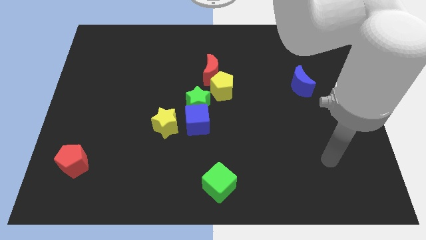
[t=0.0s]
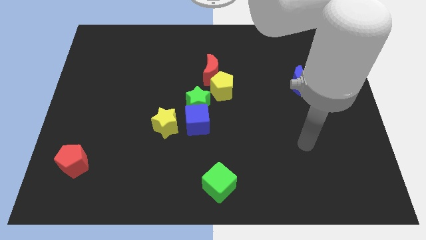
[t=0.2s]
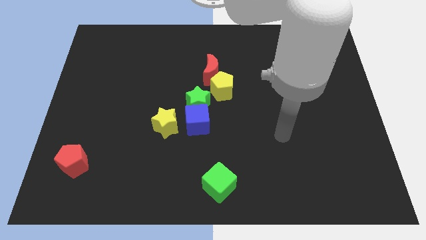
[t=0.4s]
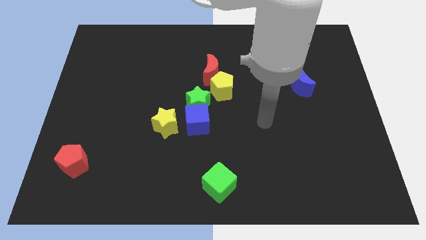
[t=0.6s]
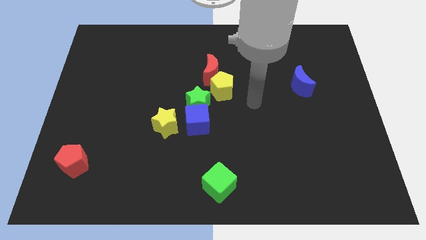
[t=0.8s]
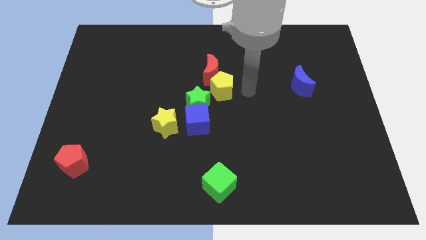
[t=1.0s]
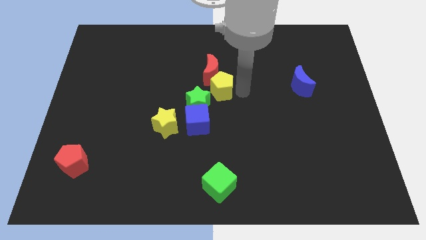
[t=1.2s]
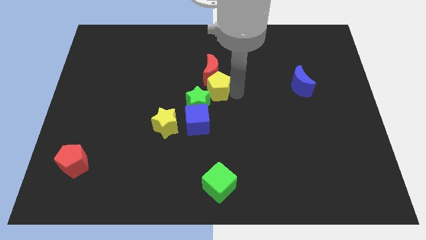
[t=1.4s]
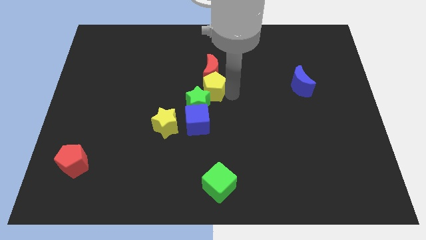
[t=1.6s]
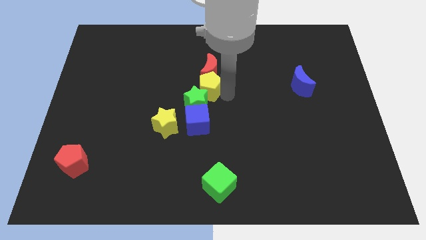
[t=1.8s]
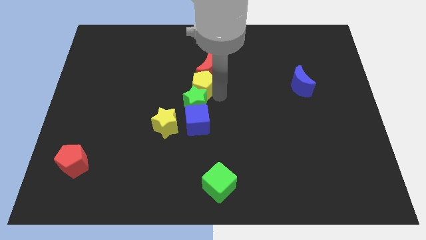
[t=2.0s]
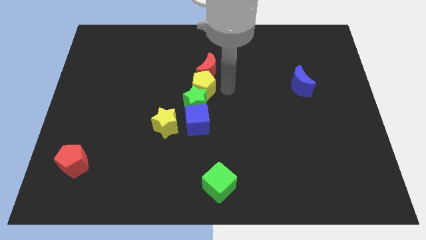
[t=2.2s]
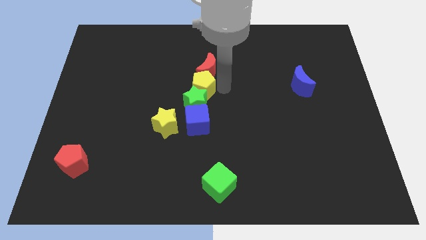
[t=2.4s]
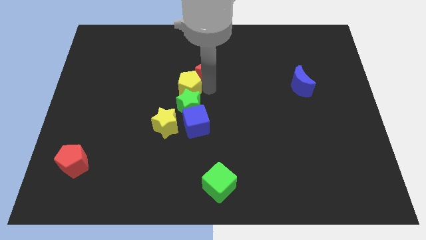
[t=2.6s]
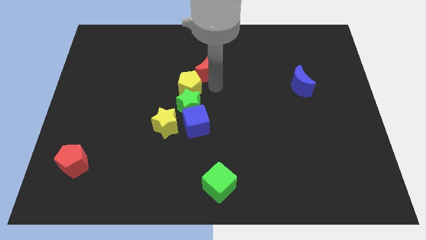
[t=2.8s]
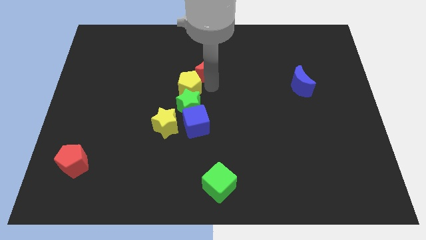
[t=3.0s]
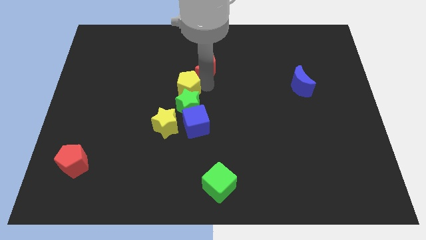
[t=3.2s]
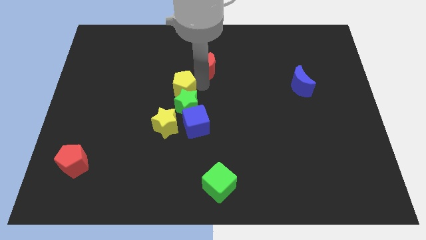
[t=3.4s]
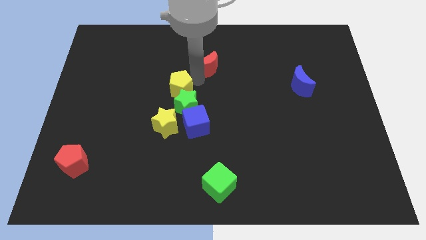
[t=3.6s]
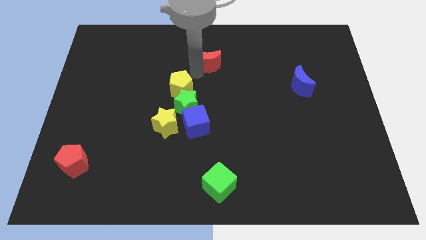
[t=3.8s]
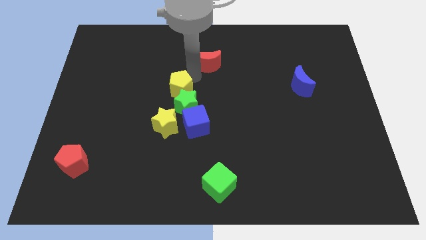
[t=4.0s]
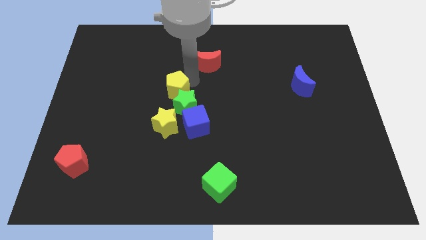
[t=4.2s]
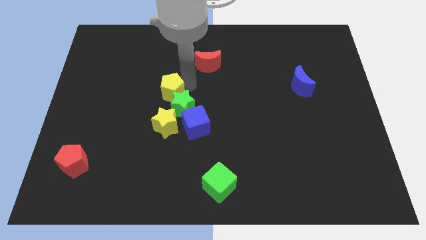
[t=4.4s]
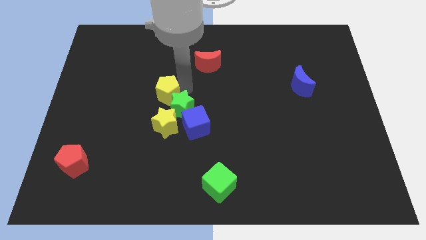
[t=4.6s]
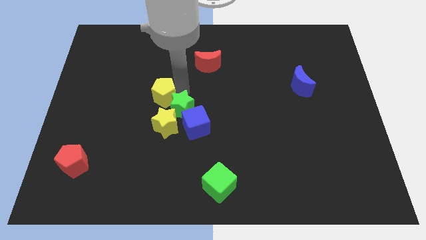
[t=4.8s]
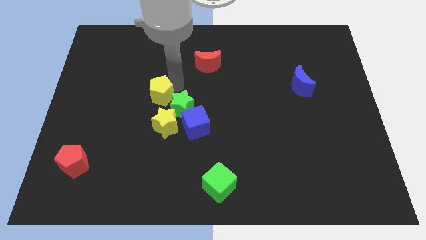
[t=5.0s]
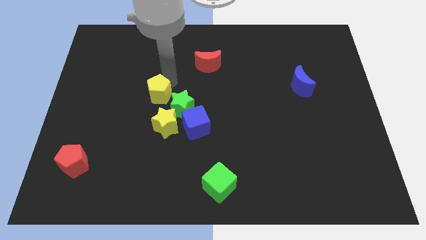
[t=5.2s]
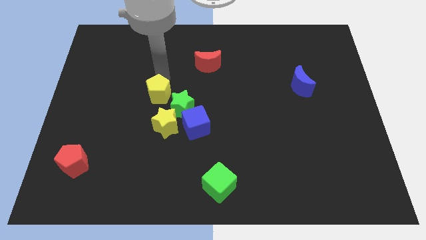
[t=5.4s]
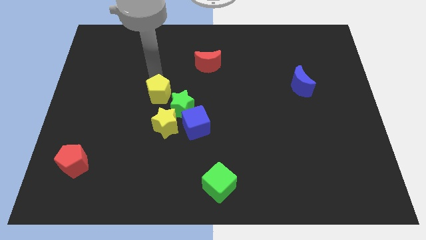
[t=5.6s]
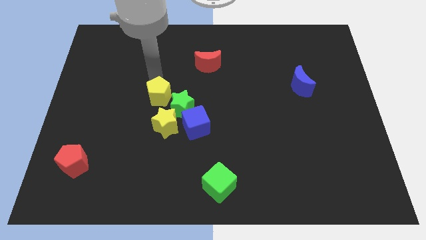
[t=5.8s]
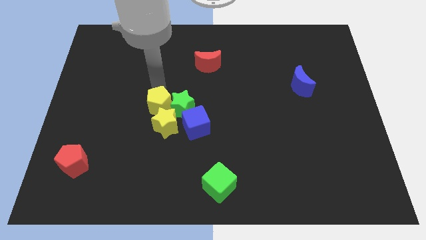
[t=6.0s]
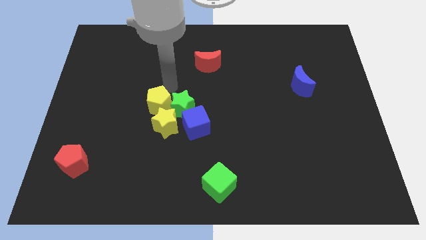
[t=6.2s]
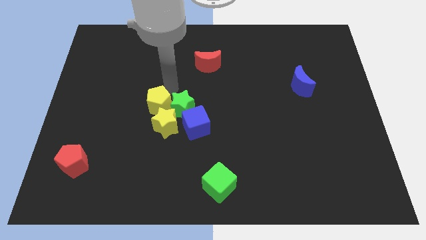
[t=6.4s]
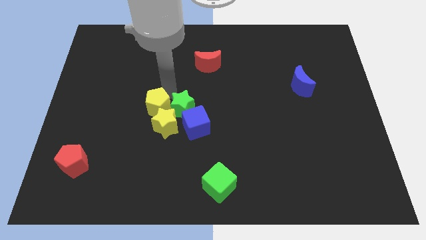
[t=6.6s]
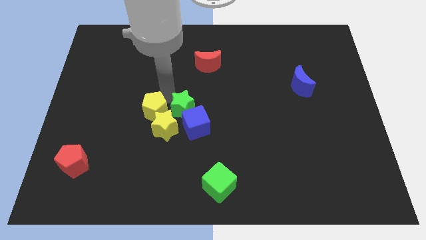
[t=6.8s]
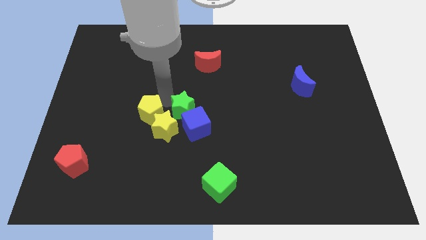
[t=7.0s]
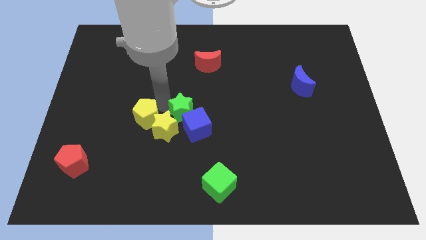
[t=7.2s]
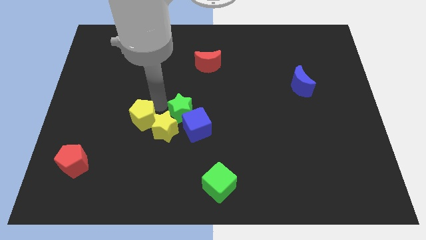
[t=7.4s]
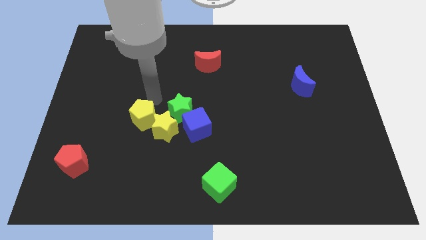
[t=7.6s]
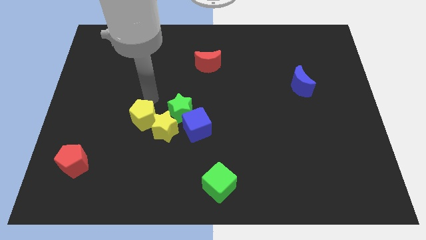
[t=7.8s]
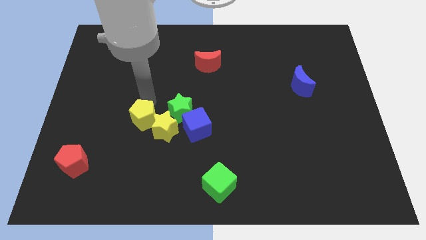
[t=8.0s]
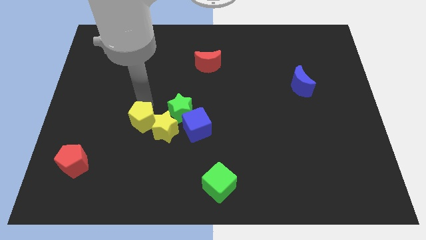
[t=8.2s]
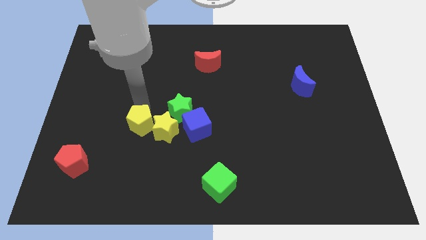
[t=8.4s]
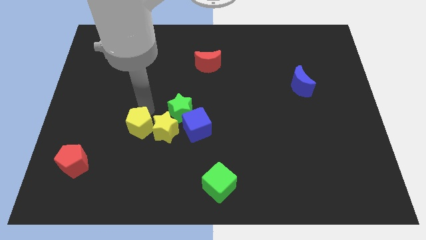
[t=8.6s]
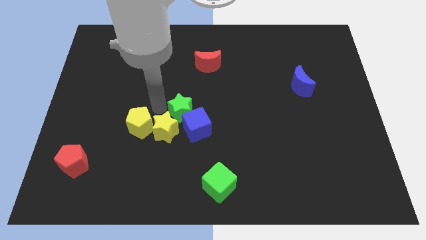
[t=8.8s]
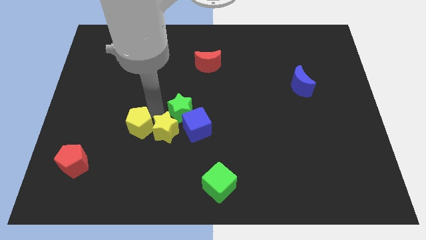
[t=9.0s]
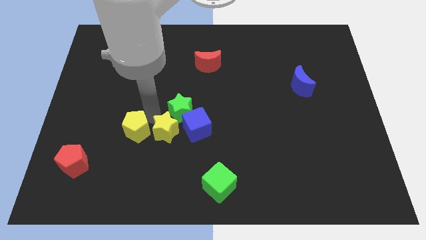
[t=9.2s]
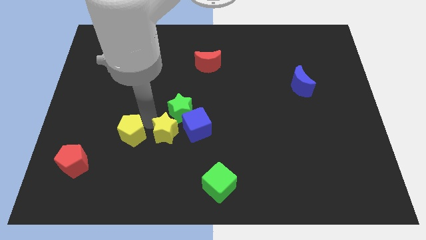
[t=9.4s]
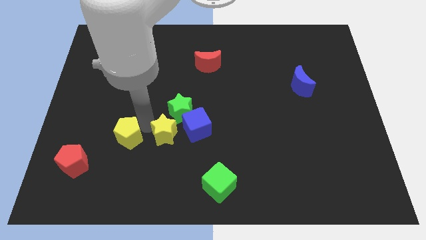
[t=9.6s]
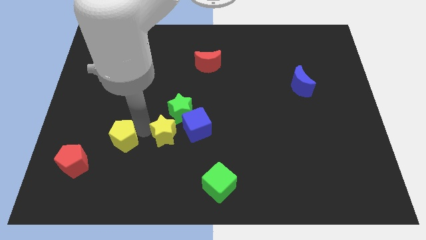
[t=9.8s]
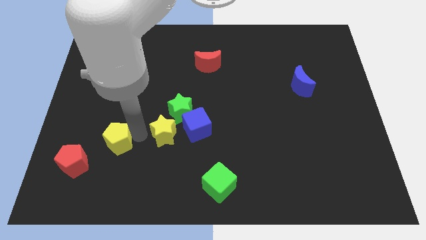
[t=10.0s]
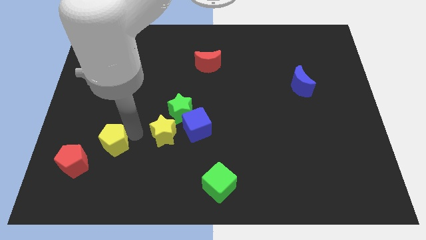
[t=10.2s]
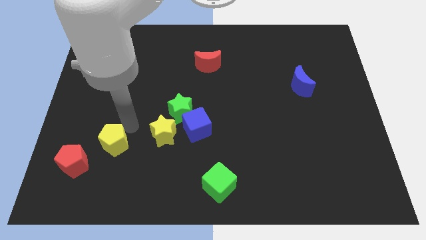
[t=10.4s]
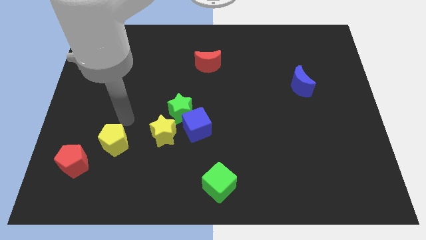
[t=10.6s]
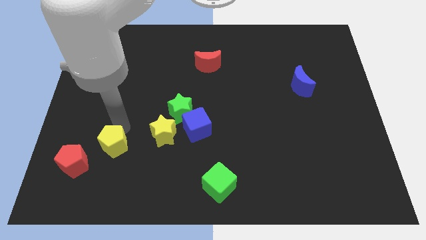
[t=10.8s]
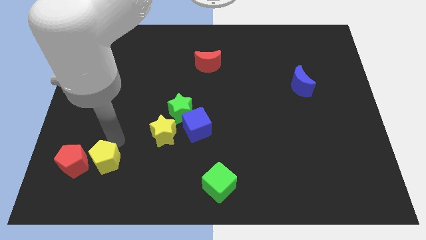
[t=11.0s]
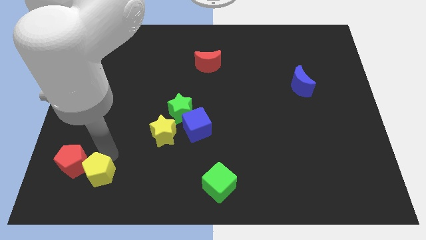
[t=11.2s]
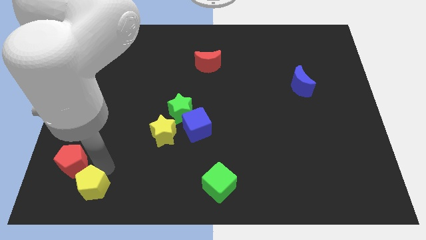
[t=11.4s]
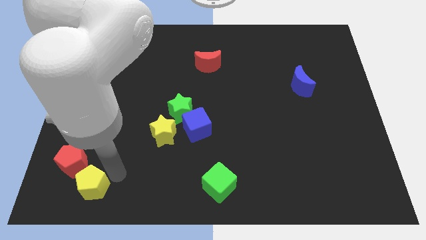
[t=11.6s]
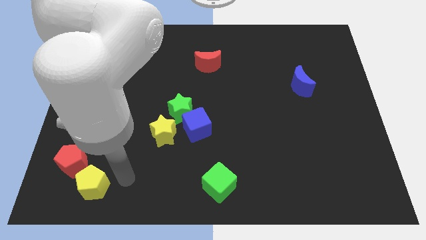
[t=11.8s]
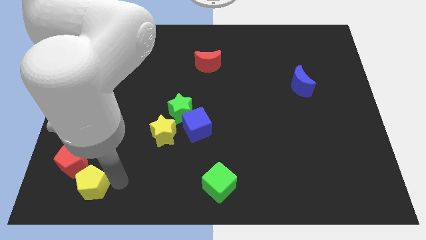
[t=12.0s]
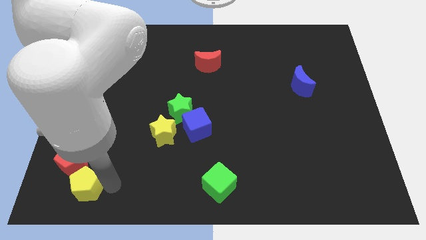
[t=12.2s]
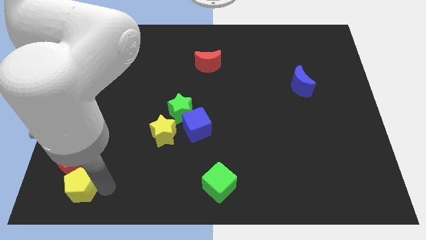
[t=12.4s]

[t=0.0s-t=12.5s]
put the yellow pentagon to the bottom left corner

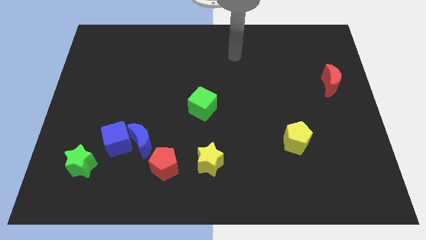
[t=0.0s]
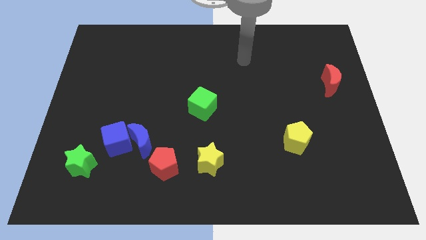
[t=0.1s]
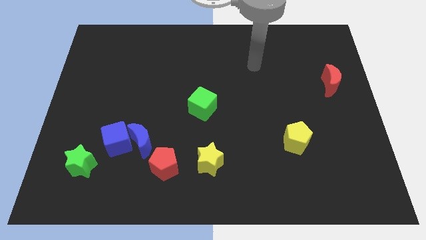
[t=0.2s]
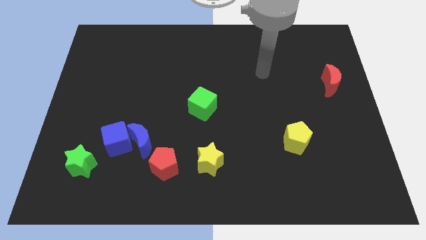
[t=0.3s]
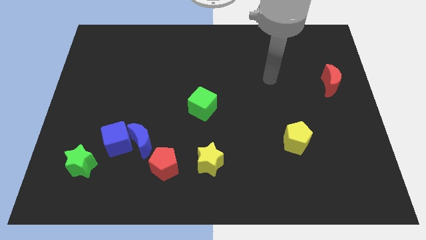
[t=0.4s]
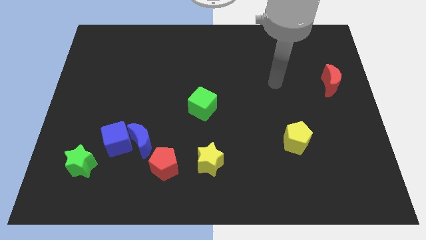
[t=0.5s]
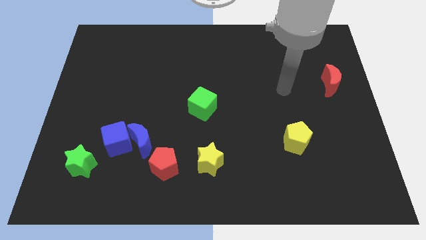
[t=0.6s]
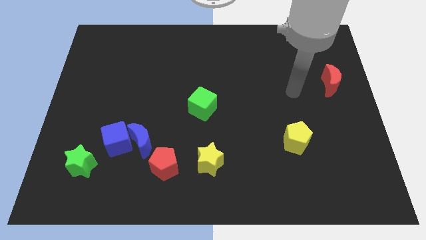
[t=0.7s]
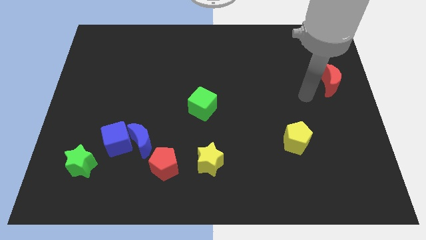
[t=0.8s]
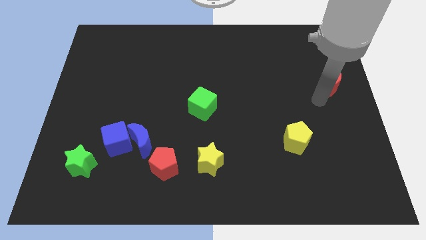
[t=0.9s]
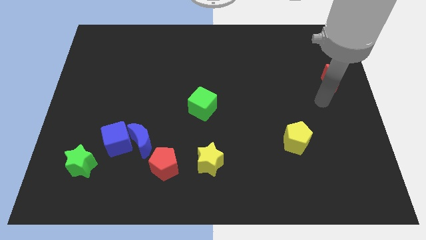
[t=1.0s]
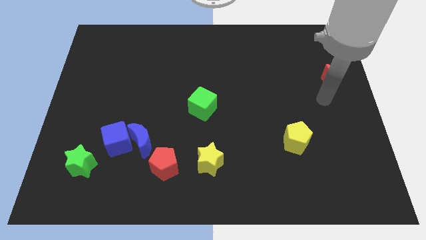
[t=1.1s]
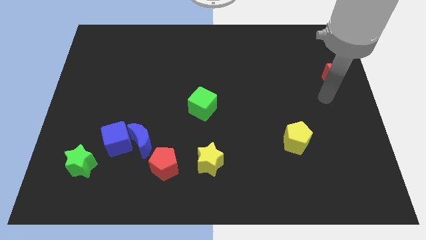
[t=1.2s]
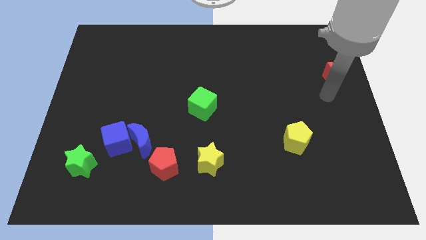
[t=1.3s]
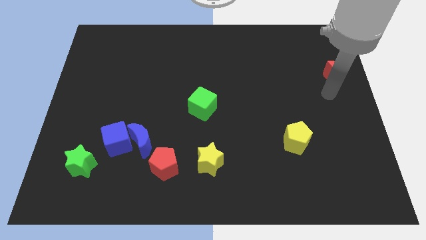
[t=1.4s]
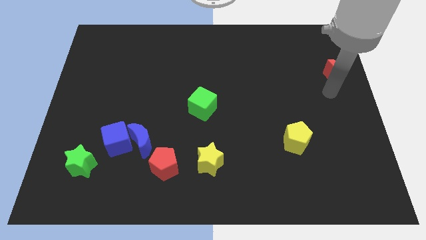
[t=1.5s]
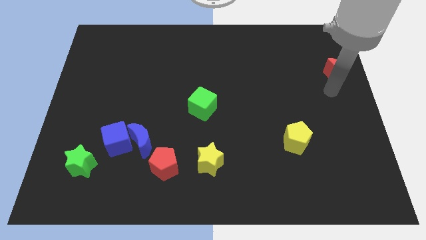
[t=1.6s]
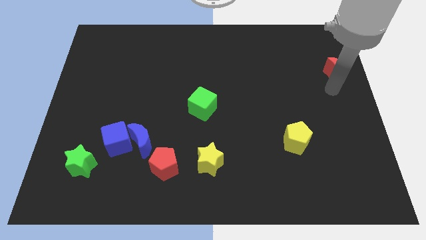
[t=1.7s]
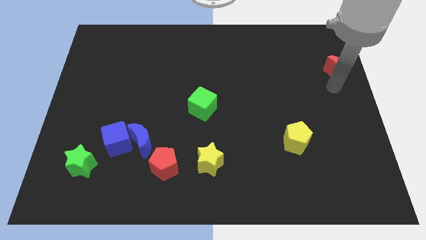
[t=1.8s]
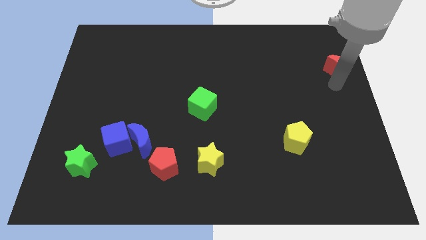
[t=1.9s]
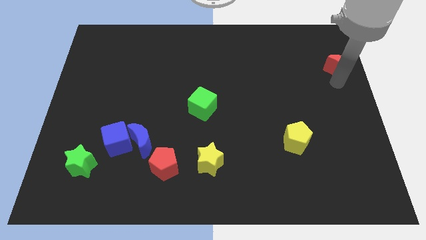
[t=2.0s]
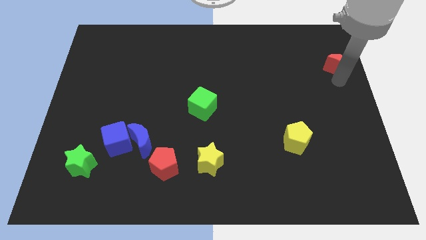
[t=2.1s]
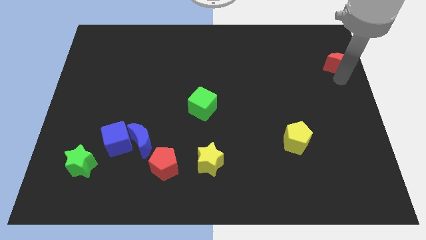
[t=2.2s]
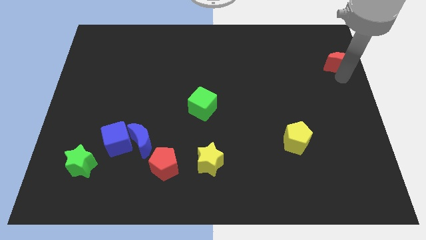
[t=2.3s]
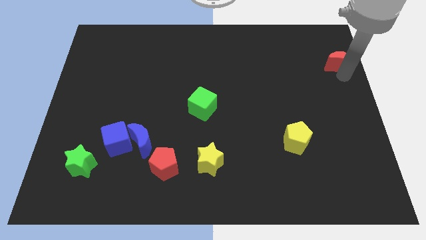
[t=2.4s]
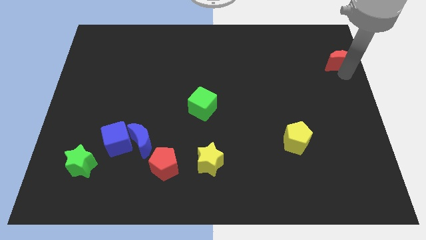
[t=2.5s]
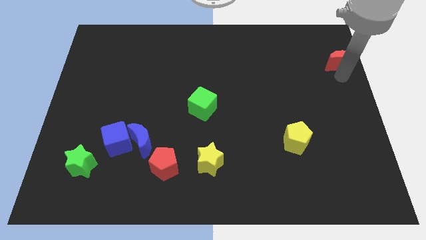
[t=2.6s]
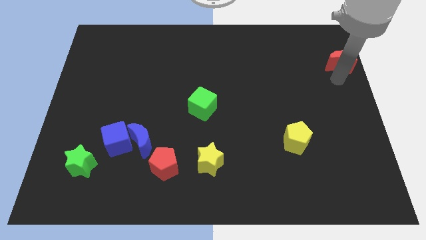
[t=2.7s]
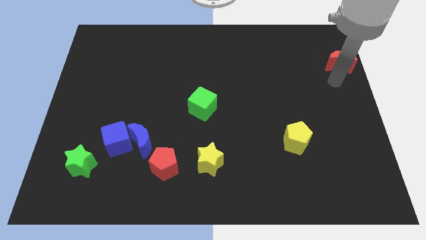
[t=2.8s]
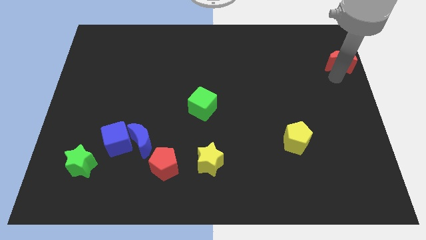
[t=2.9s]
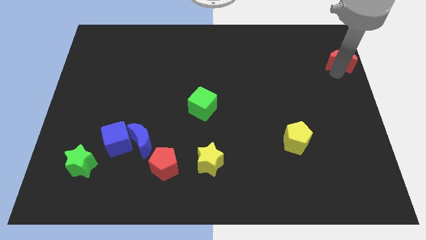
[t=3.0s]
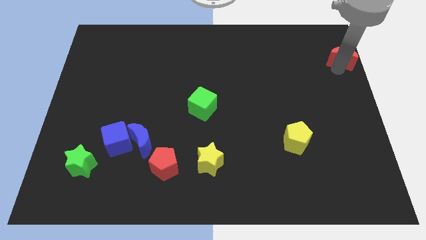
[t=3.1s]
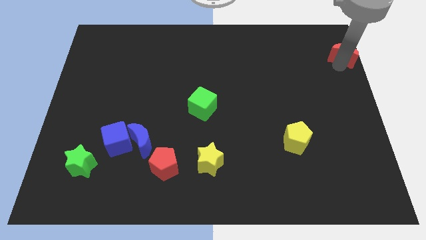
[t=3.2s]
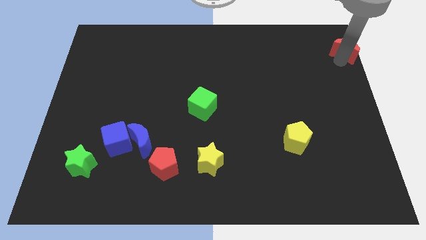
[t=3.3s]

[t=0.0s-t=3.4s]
put the red moon to the top right of the board
